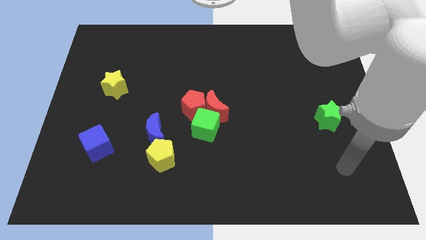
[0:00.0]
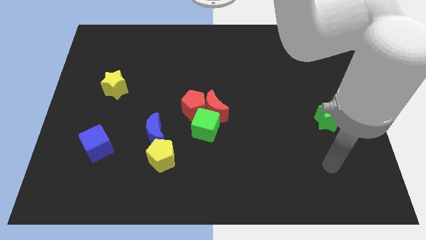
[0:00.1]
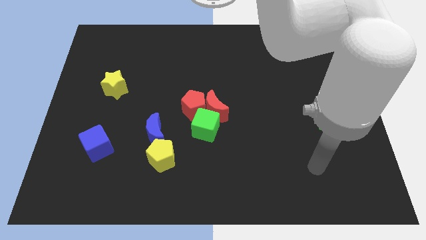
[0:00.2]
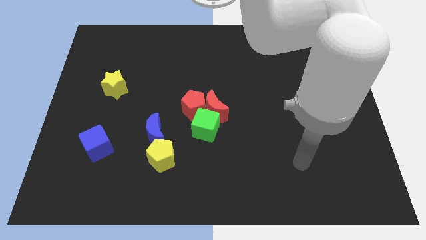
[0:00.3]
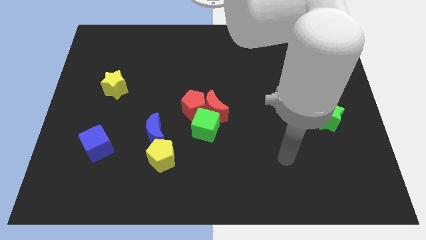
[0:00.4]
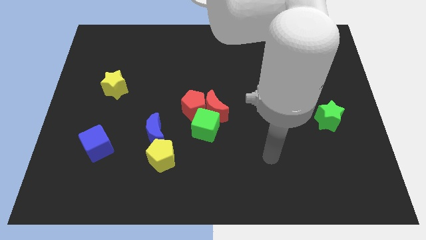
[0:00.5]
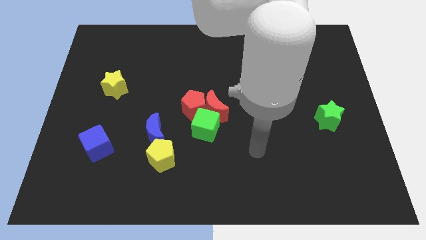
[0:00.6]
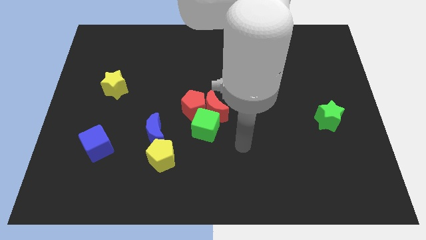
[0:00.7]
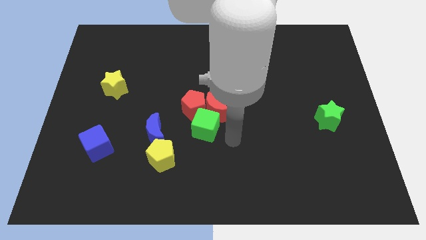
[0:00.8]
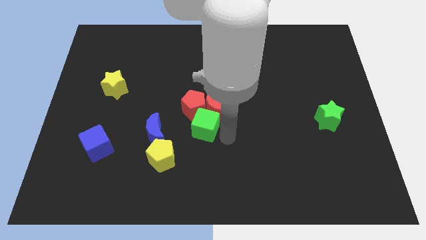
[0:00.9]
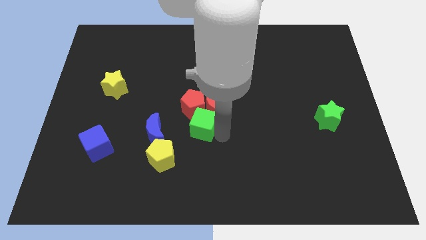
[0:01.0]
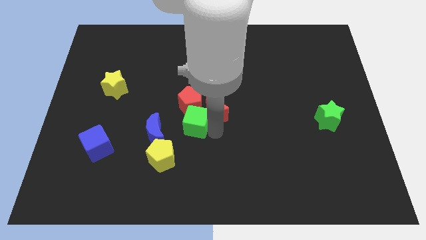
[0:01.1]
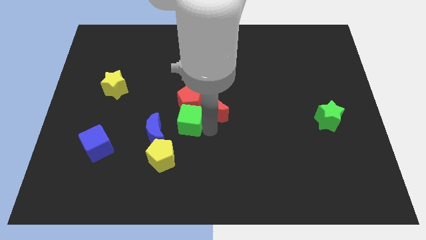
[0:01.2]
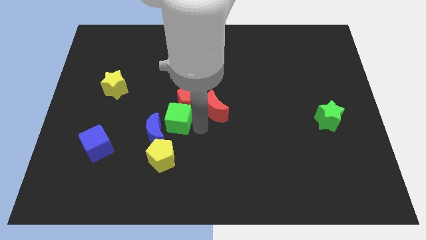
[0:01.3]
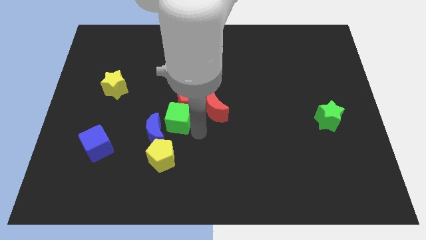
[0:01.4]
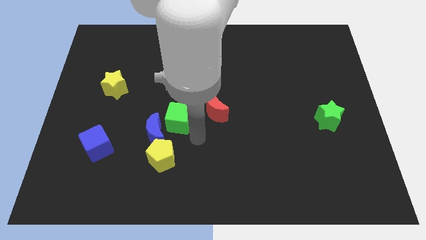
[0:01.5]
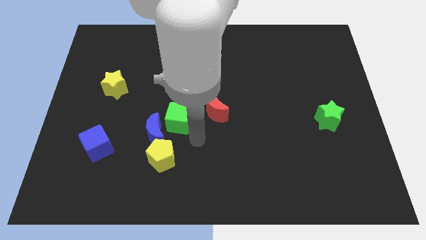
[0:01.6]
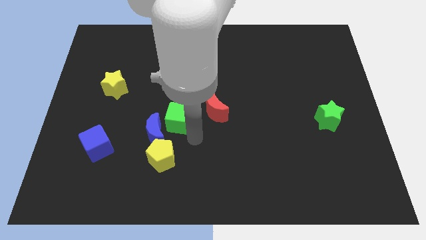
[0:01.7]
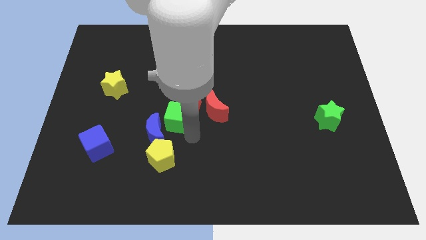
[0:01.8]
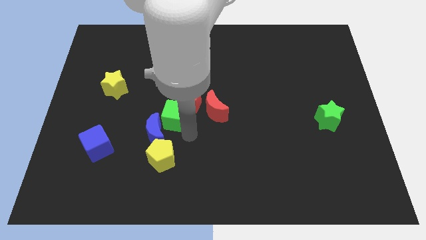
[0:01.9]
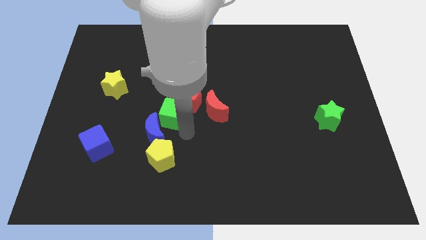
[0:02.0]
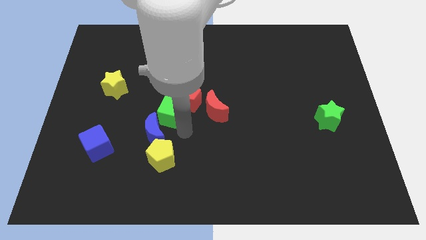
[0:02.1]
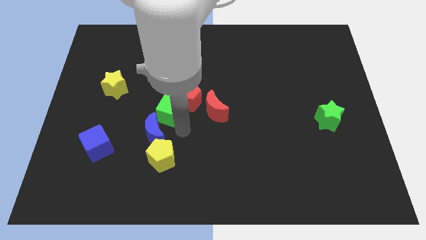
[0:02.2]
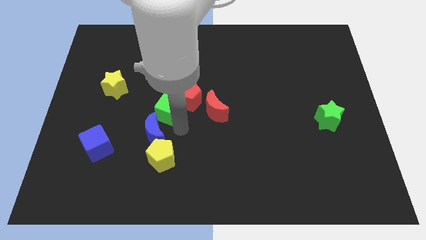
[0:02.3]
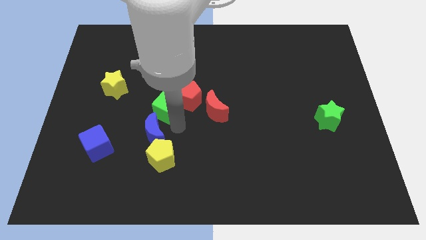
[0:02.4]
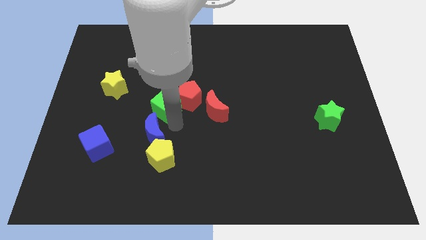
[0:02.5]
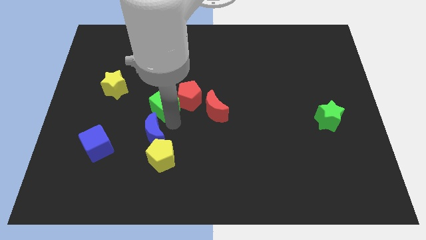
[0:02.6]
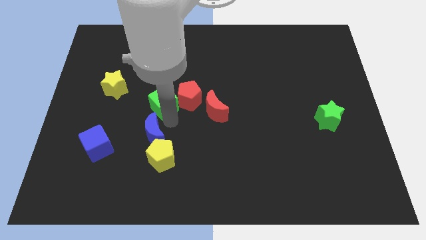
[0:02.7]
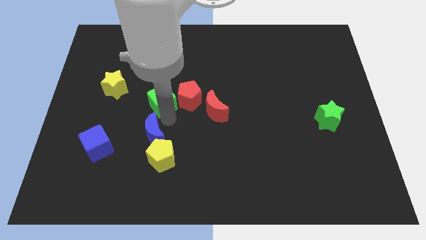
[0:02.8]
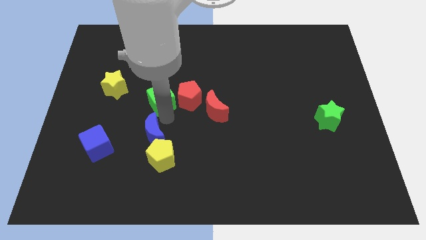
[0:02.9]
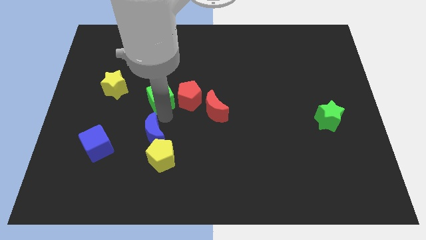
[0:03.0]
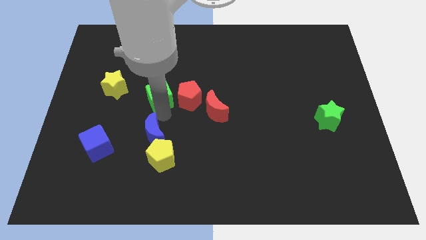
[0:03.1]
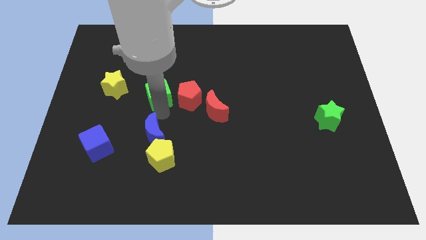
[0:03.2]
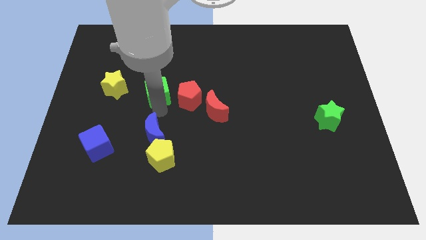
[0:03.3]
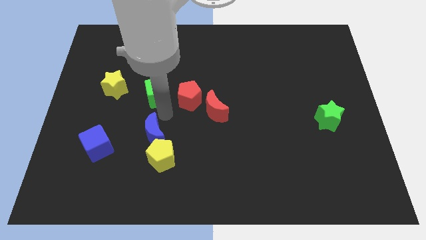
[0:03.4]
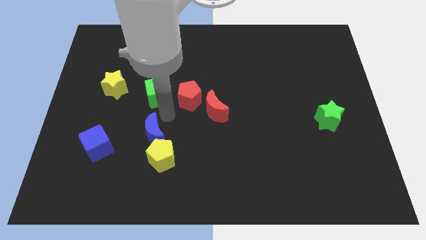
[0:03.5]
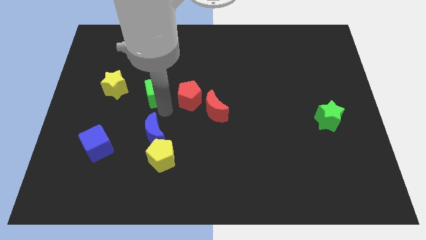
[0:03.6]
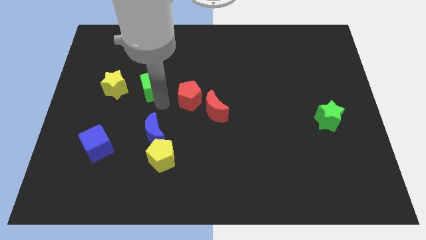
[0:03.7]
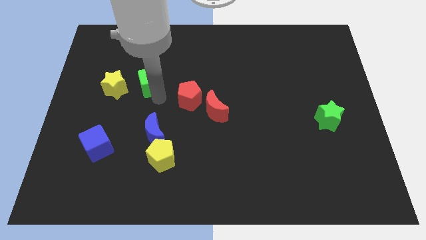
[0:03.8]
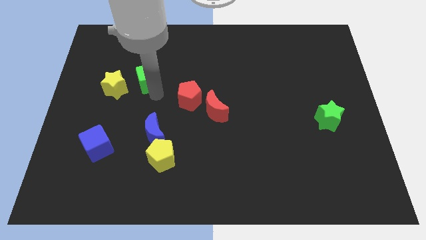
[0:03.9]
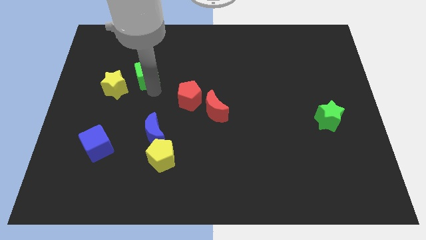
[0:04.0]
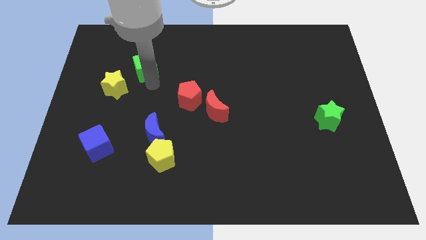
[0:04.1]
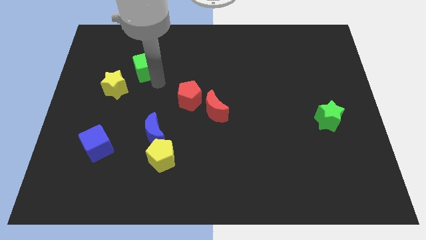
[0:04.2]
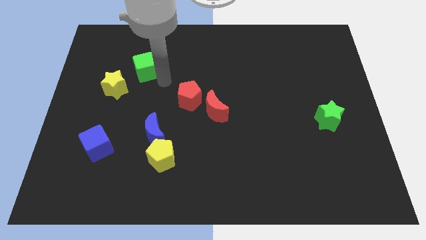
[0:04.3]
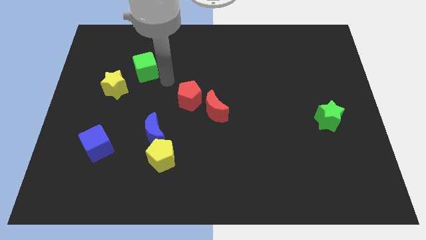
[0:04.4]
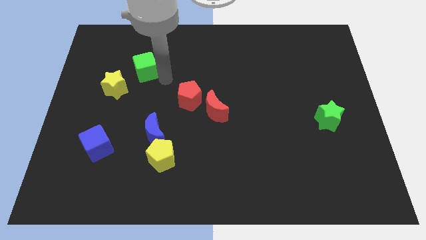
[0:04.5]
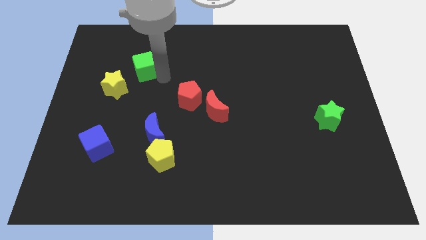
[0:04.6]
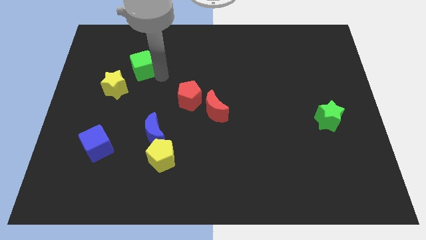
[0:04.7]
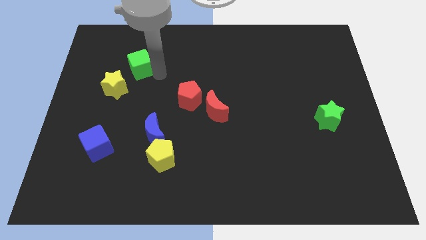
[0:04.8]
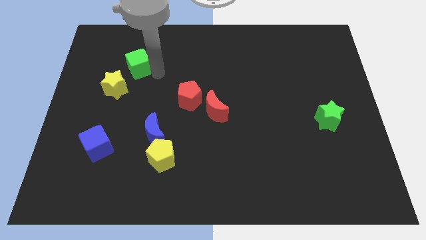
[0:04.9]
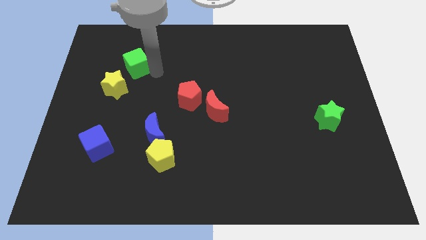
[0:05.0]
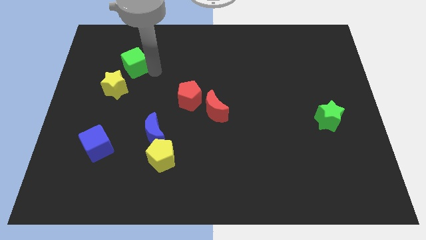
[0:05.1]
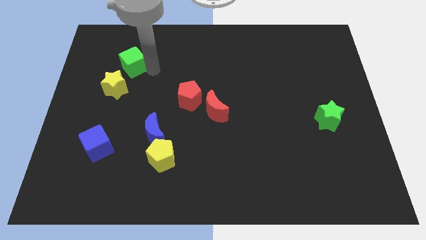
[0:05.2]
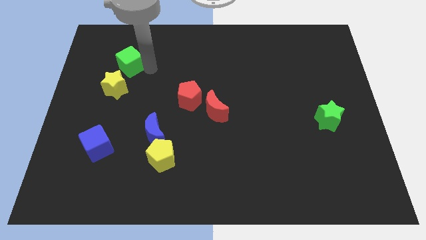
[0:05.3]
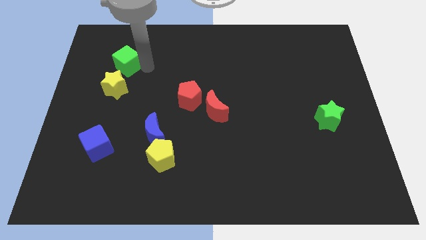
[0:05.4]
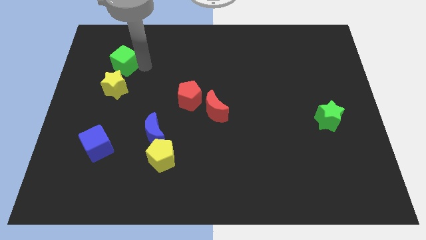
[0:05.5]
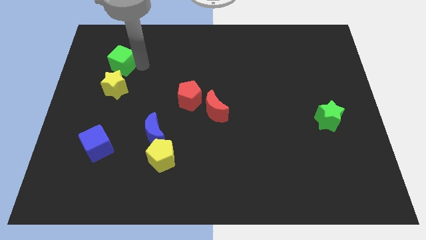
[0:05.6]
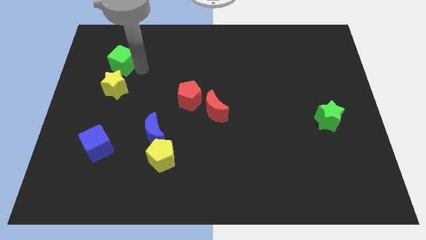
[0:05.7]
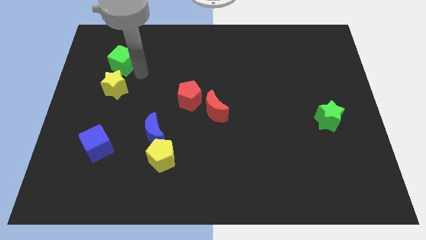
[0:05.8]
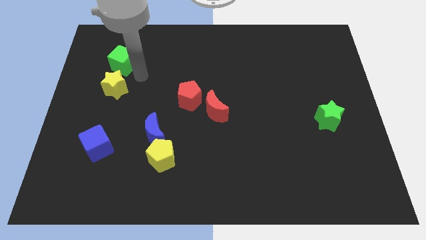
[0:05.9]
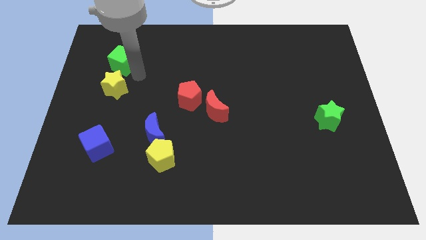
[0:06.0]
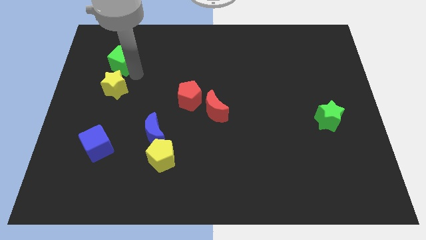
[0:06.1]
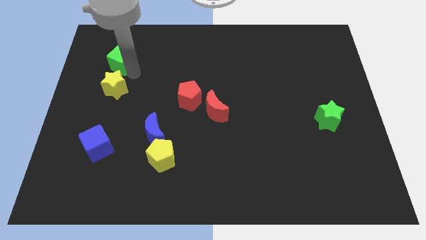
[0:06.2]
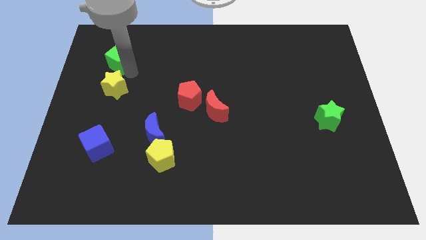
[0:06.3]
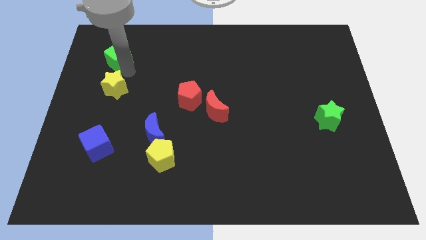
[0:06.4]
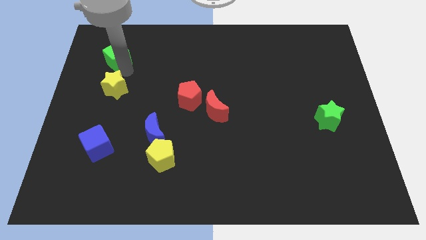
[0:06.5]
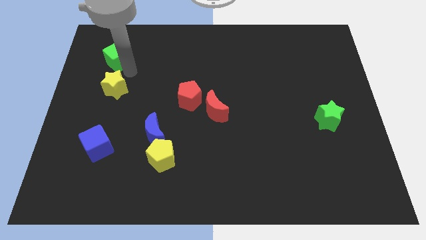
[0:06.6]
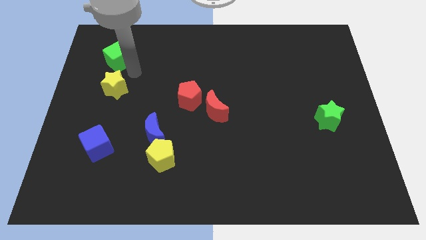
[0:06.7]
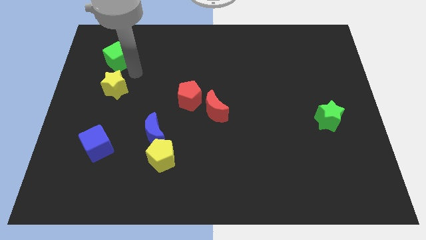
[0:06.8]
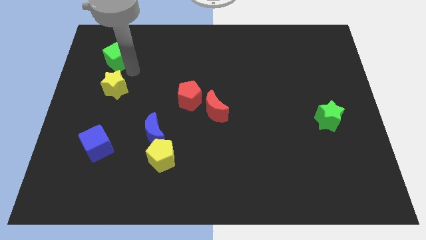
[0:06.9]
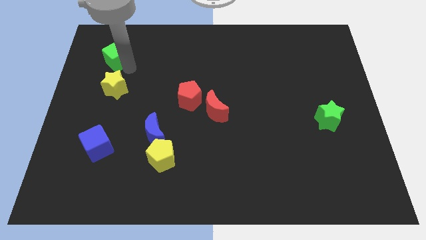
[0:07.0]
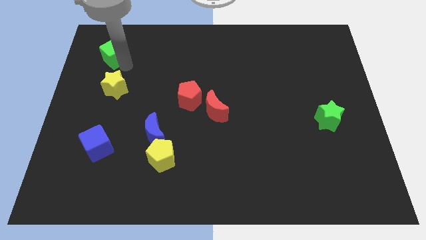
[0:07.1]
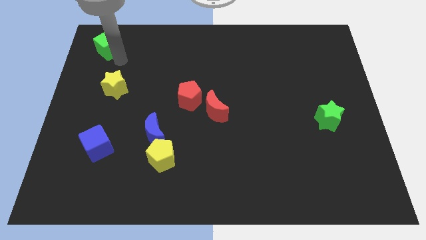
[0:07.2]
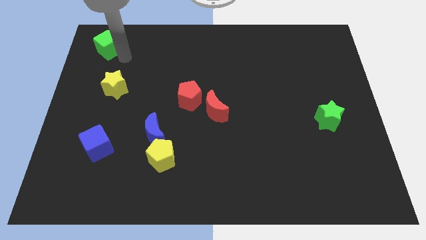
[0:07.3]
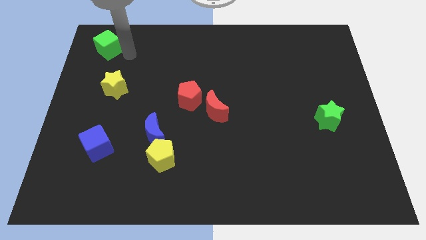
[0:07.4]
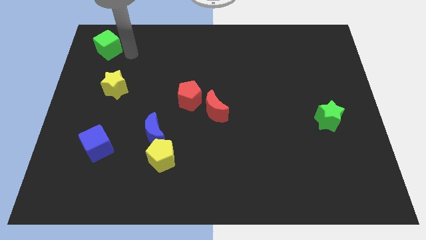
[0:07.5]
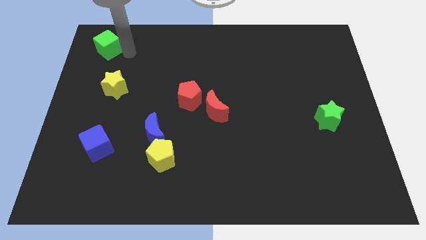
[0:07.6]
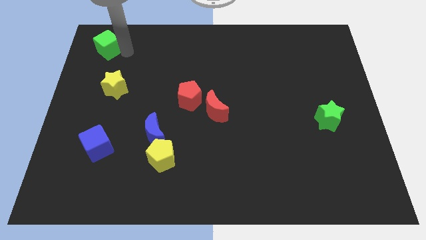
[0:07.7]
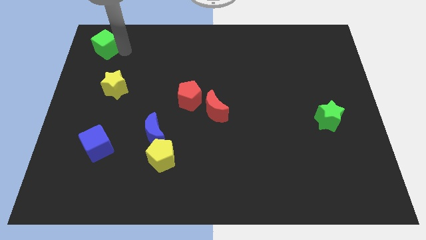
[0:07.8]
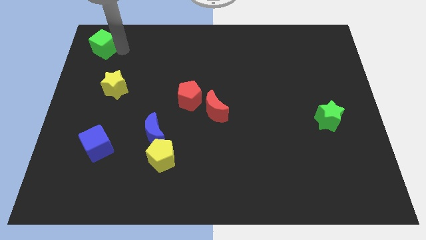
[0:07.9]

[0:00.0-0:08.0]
move the green cube to the top left
